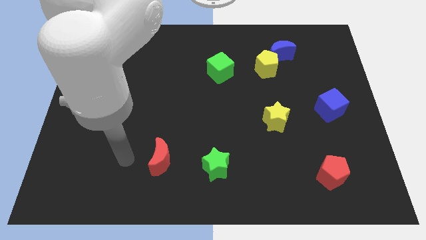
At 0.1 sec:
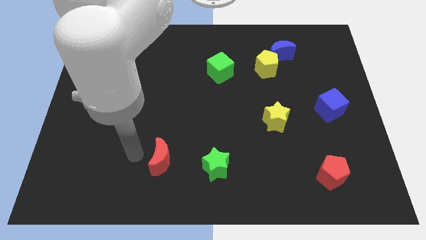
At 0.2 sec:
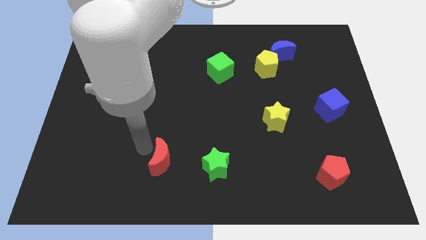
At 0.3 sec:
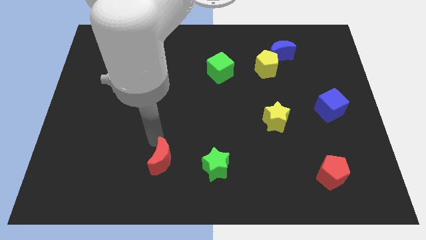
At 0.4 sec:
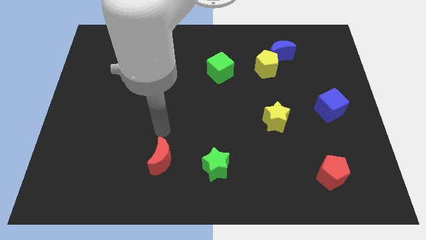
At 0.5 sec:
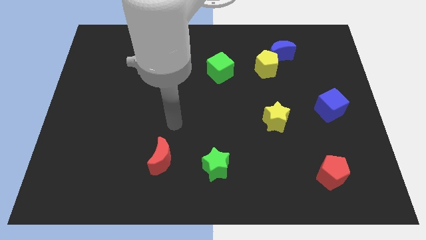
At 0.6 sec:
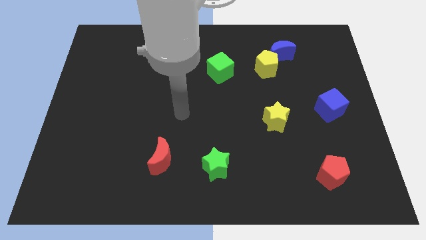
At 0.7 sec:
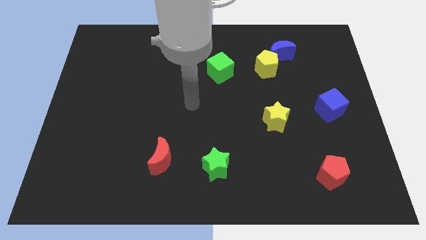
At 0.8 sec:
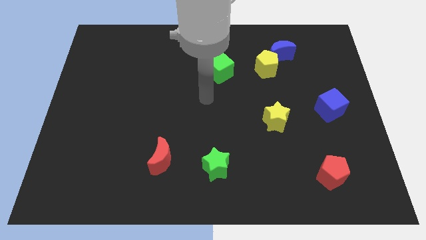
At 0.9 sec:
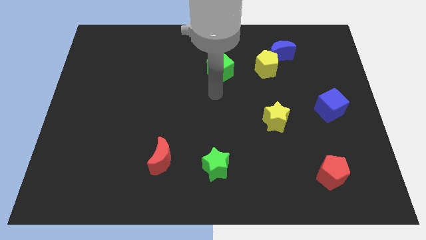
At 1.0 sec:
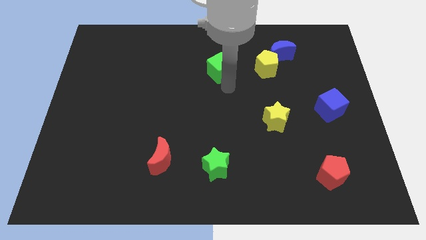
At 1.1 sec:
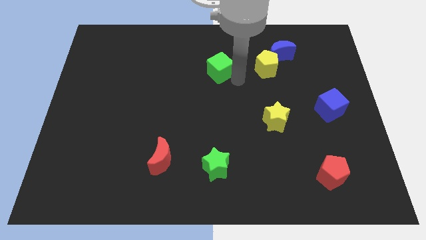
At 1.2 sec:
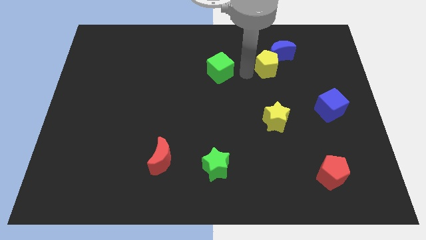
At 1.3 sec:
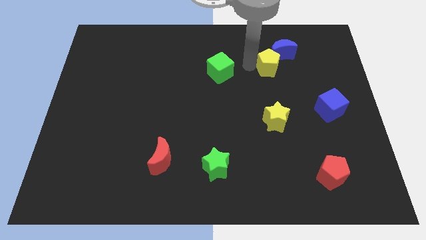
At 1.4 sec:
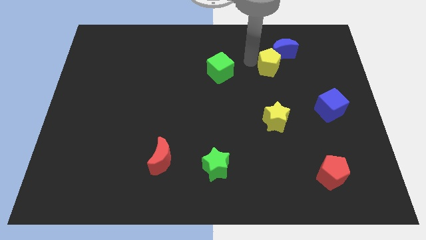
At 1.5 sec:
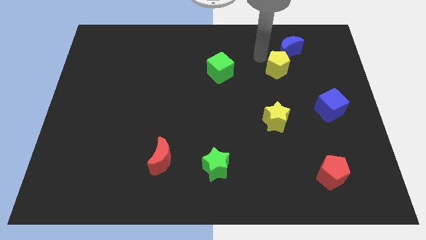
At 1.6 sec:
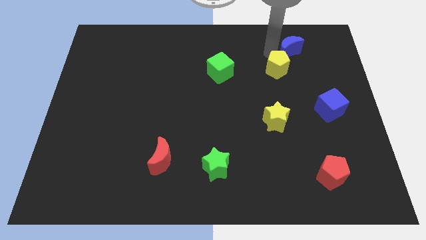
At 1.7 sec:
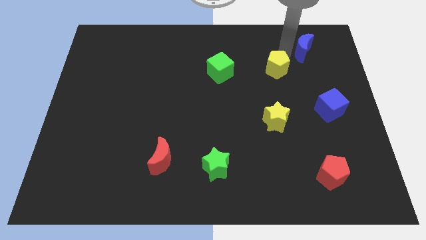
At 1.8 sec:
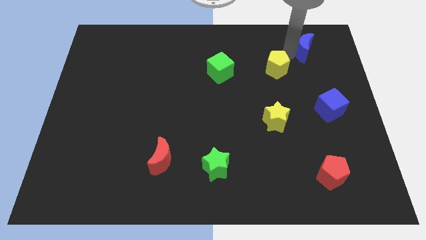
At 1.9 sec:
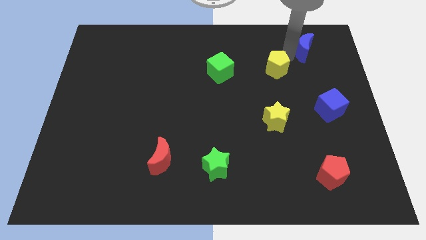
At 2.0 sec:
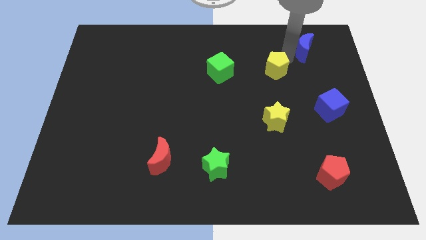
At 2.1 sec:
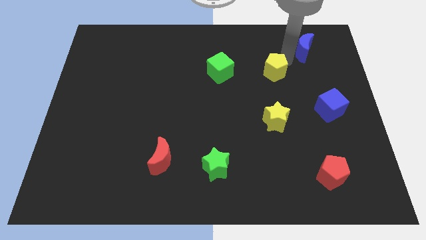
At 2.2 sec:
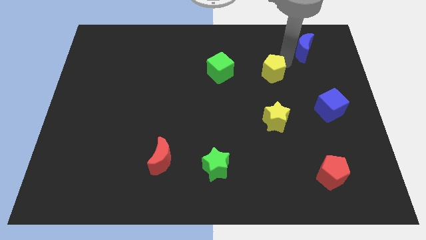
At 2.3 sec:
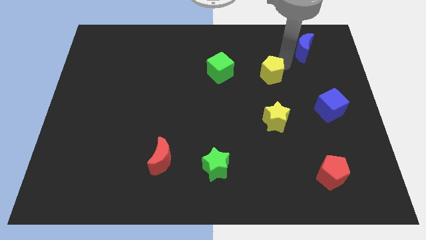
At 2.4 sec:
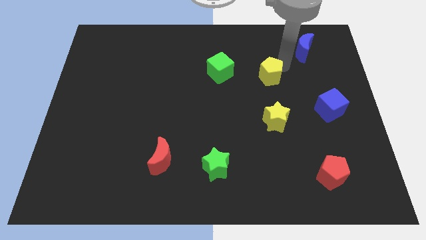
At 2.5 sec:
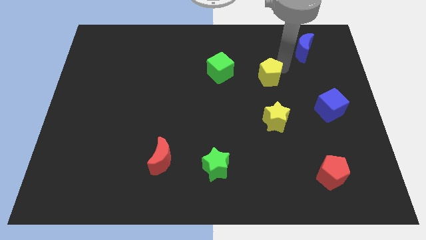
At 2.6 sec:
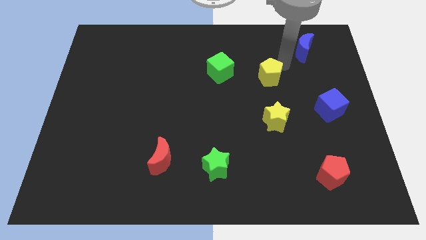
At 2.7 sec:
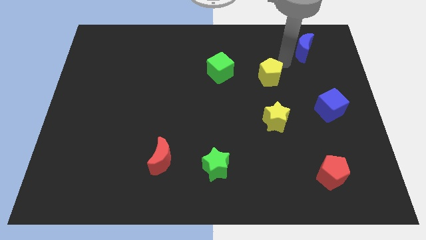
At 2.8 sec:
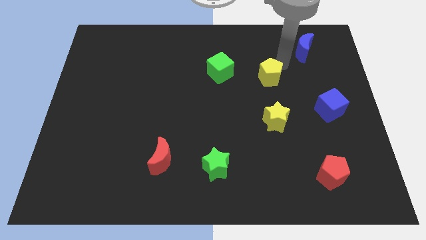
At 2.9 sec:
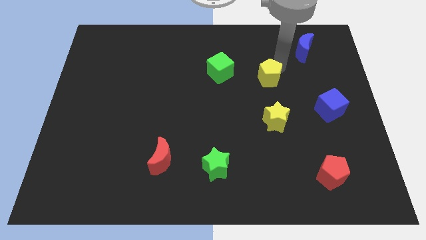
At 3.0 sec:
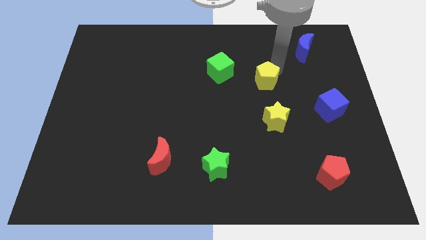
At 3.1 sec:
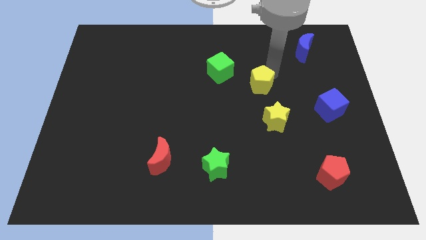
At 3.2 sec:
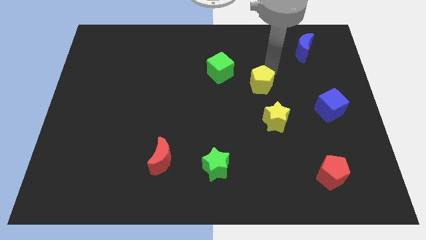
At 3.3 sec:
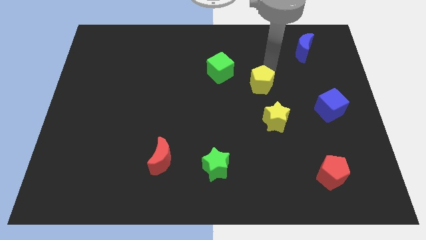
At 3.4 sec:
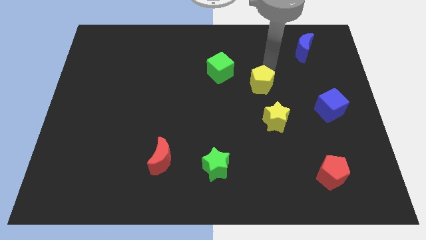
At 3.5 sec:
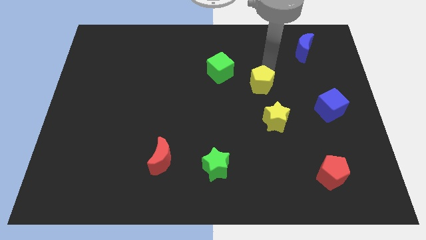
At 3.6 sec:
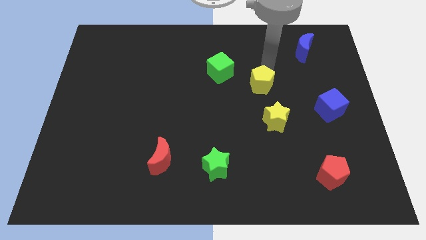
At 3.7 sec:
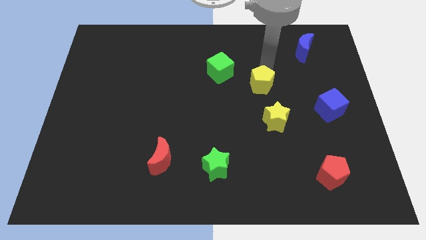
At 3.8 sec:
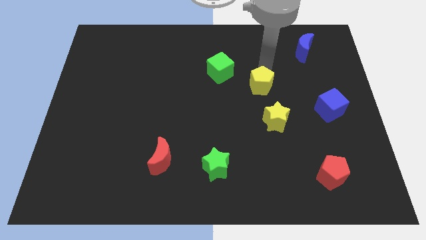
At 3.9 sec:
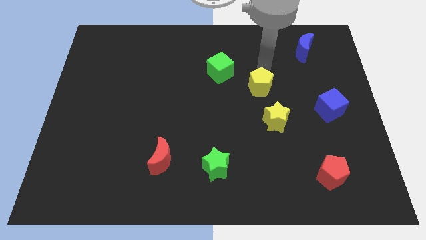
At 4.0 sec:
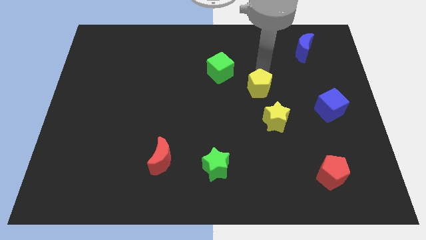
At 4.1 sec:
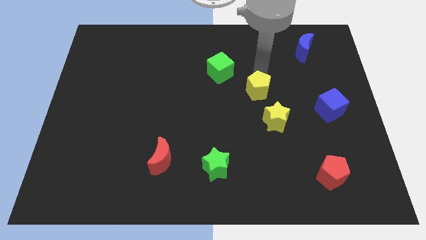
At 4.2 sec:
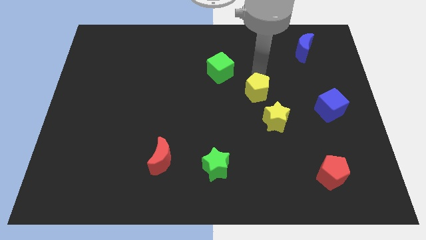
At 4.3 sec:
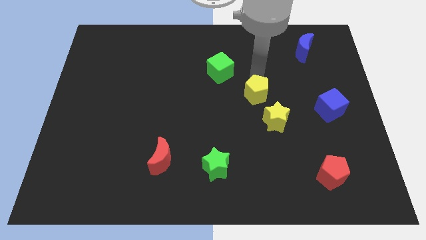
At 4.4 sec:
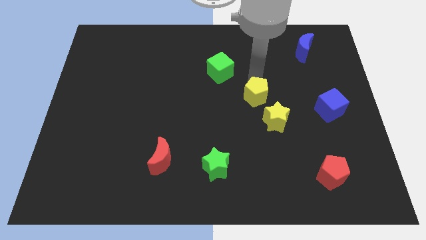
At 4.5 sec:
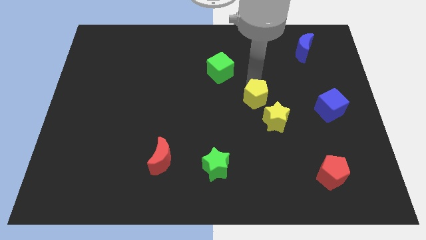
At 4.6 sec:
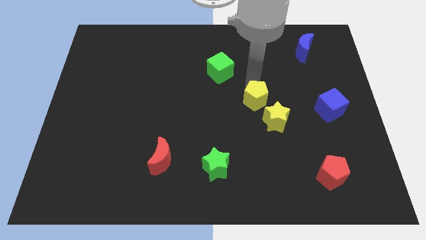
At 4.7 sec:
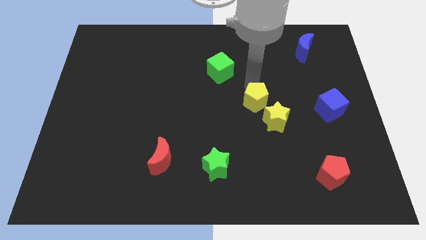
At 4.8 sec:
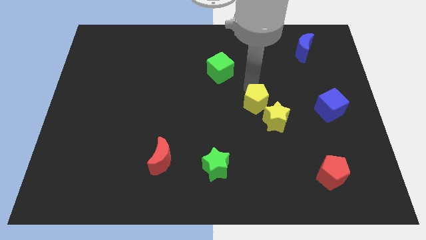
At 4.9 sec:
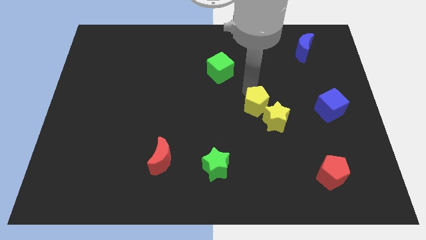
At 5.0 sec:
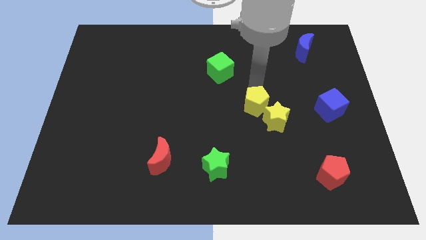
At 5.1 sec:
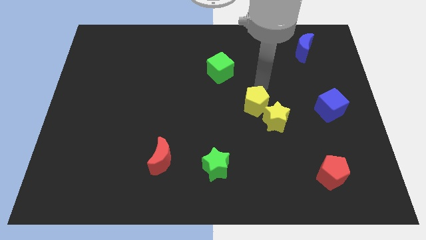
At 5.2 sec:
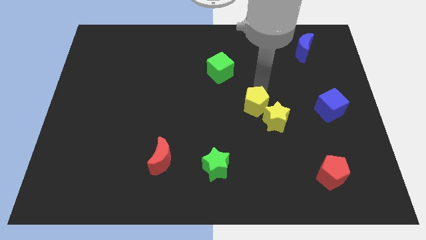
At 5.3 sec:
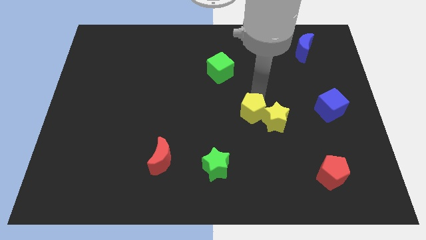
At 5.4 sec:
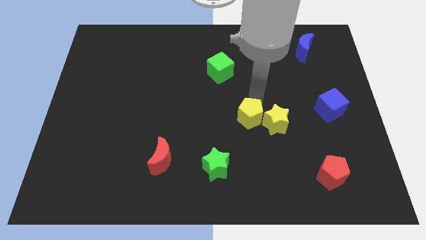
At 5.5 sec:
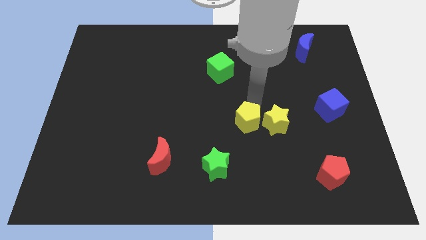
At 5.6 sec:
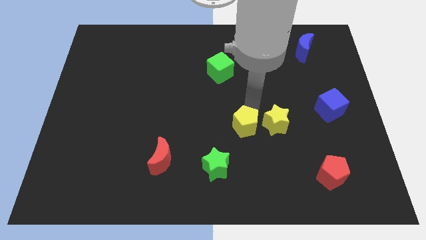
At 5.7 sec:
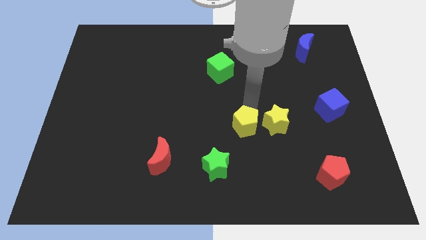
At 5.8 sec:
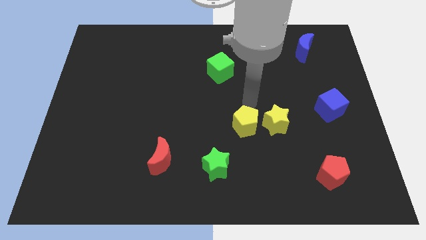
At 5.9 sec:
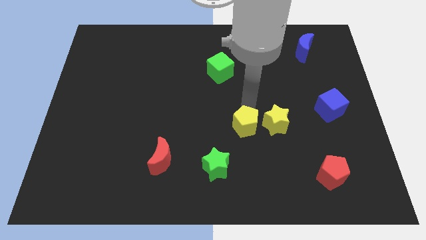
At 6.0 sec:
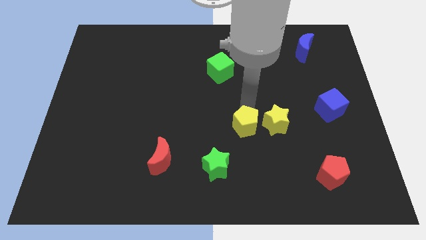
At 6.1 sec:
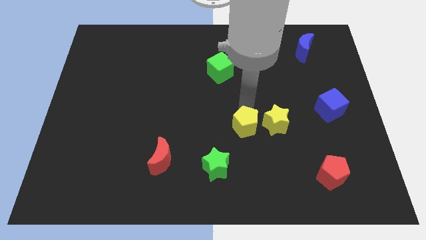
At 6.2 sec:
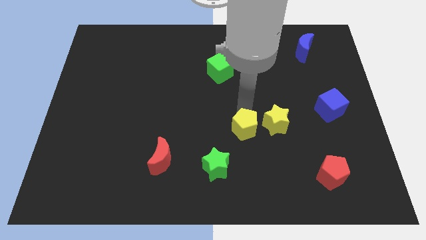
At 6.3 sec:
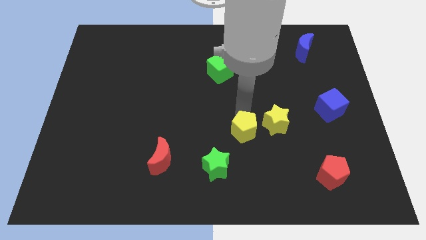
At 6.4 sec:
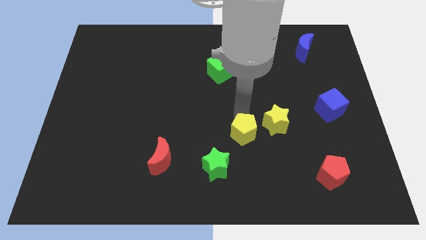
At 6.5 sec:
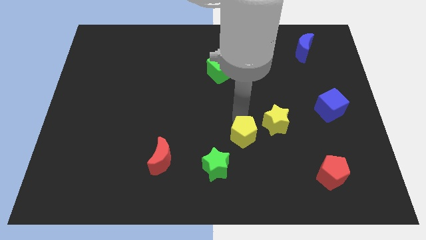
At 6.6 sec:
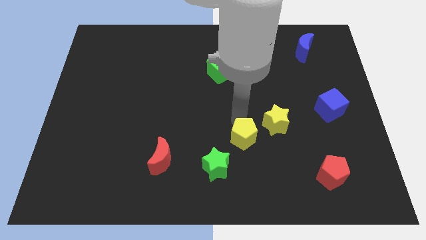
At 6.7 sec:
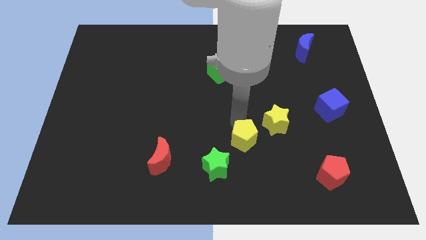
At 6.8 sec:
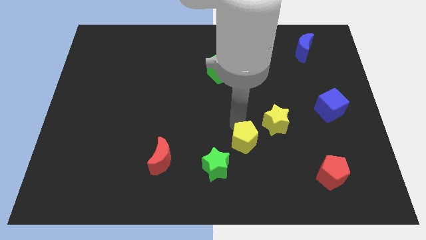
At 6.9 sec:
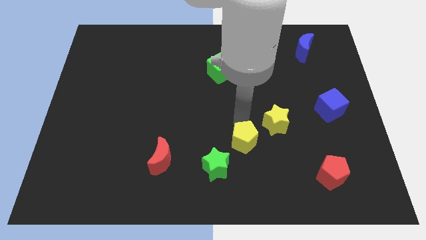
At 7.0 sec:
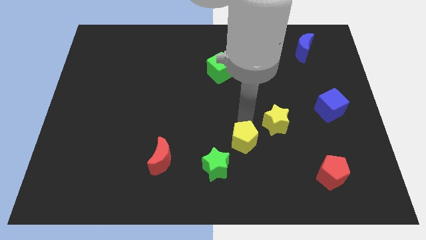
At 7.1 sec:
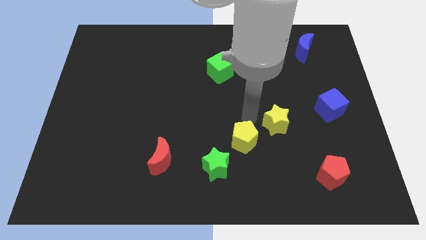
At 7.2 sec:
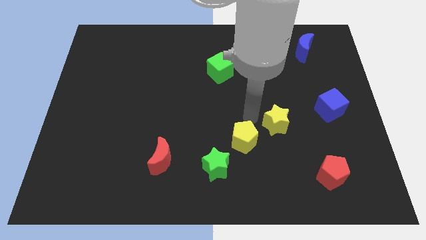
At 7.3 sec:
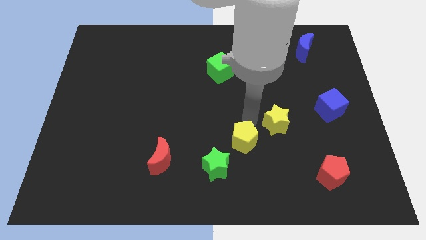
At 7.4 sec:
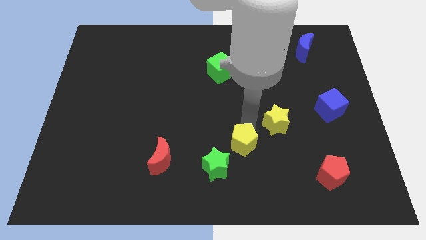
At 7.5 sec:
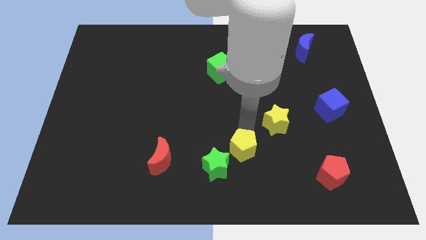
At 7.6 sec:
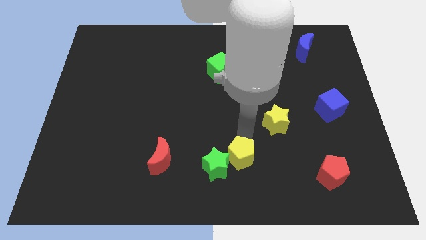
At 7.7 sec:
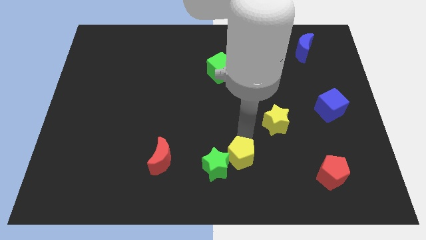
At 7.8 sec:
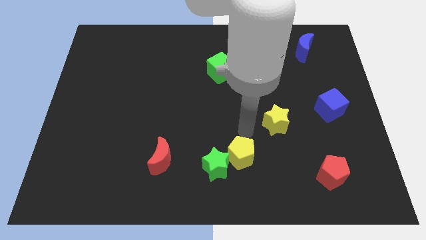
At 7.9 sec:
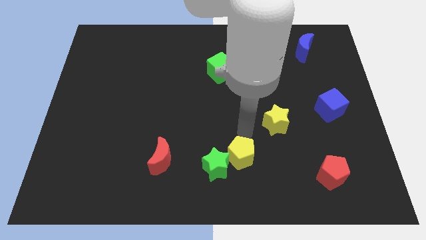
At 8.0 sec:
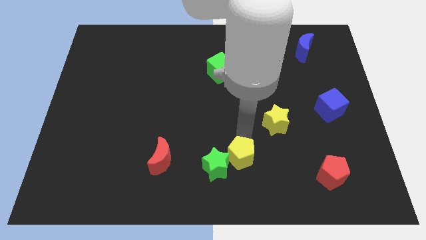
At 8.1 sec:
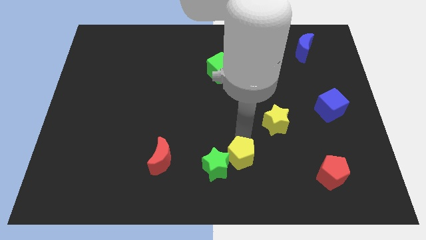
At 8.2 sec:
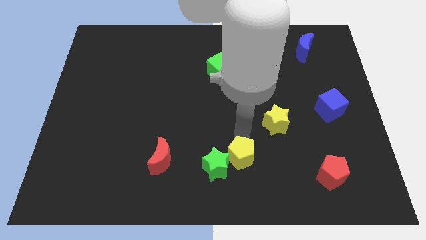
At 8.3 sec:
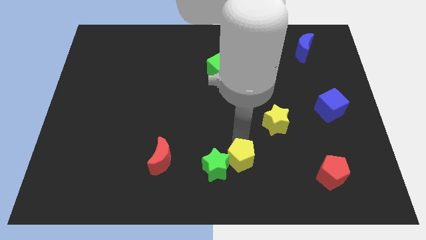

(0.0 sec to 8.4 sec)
move the yellow pentagon to the bottom
